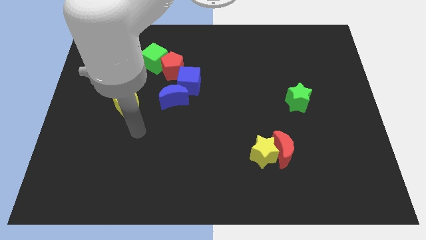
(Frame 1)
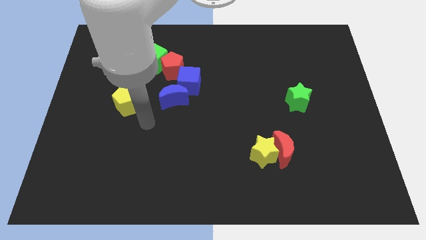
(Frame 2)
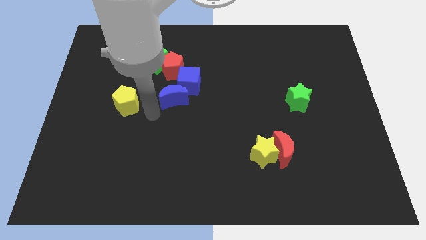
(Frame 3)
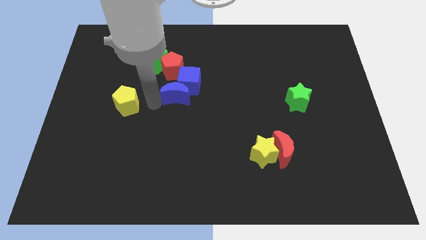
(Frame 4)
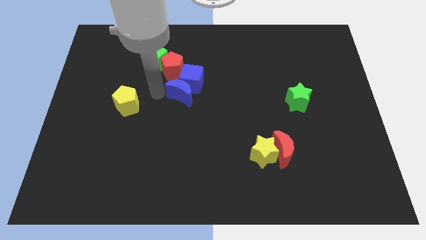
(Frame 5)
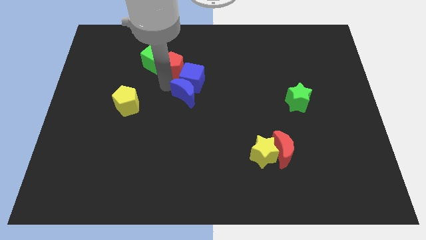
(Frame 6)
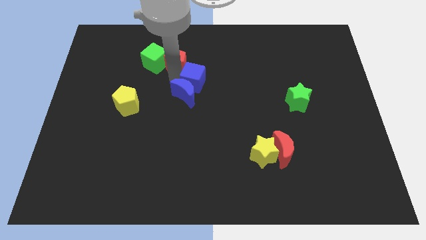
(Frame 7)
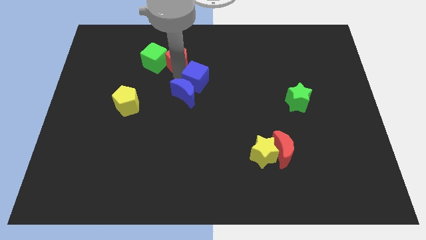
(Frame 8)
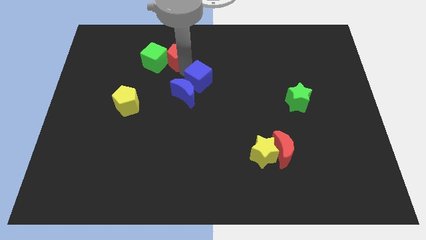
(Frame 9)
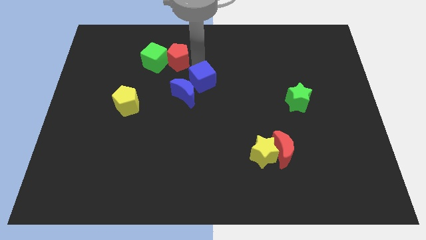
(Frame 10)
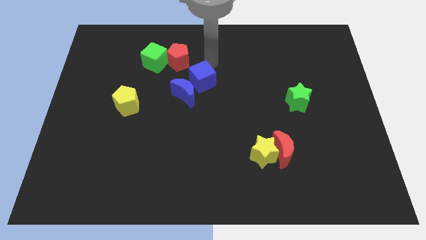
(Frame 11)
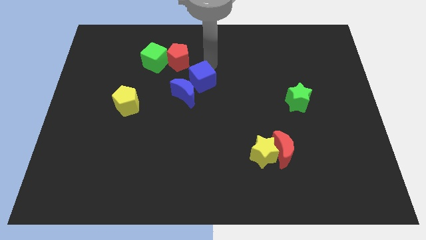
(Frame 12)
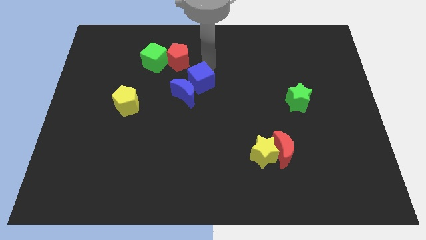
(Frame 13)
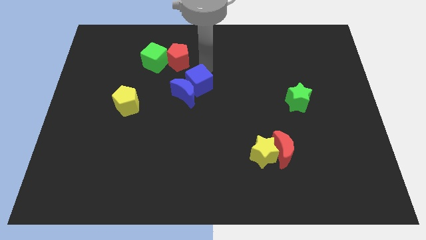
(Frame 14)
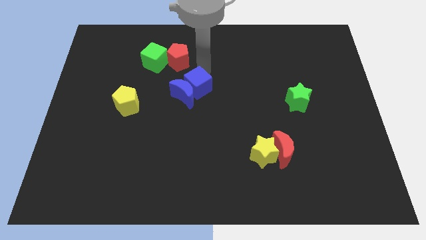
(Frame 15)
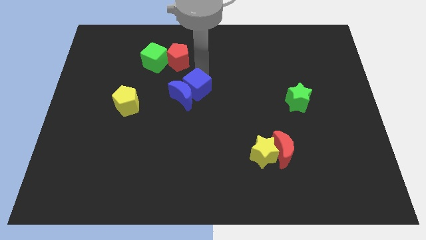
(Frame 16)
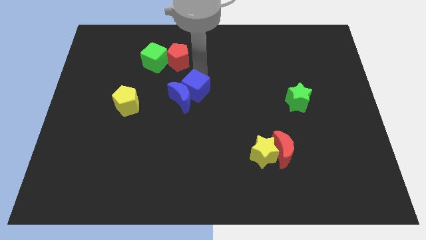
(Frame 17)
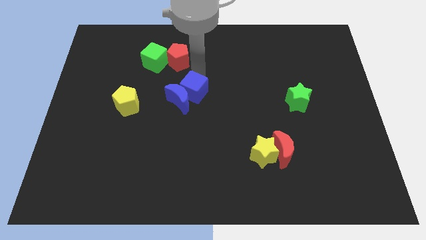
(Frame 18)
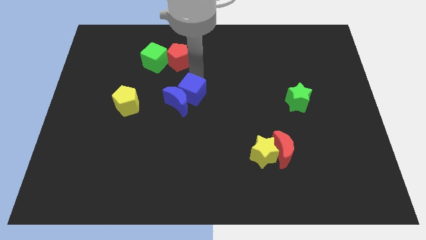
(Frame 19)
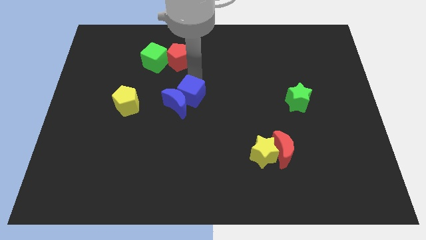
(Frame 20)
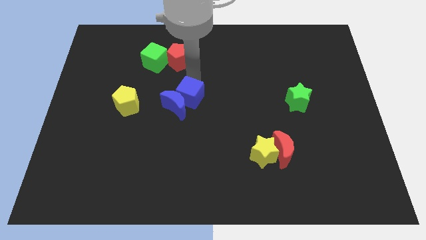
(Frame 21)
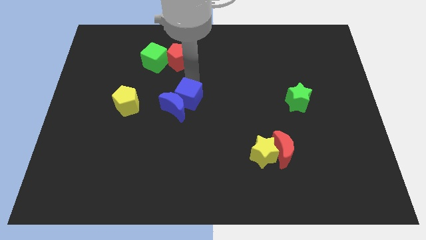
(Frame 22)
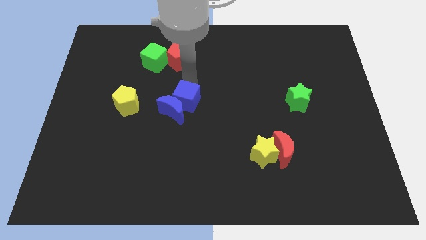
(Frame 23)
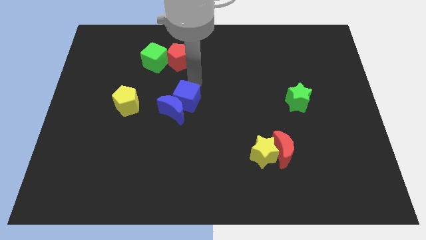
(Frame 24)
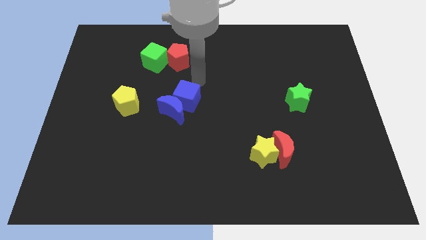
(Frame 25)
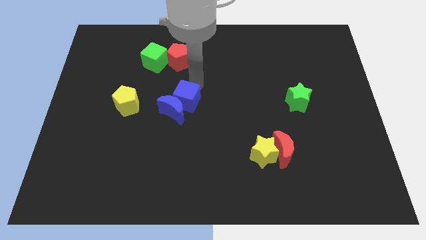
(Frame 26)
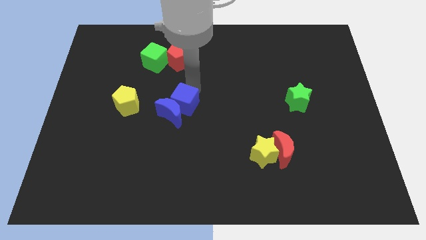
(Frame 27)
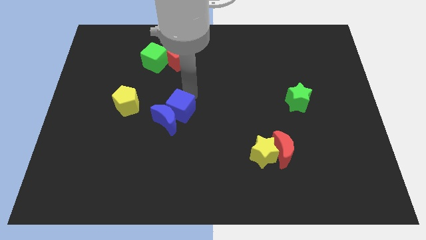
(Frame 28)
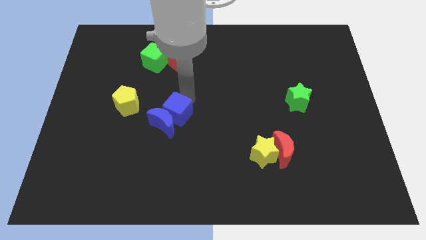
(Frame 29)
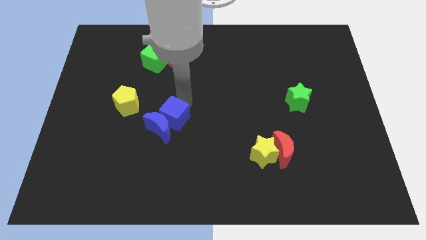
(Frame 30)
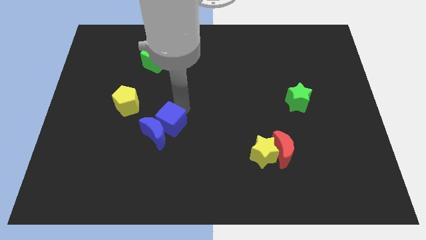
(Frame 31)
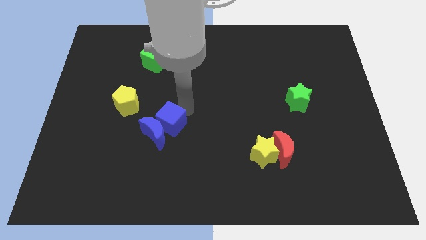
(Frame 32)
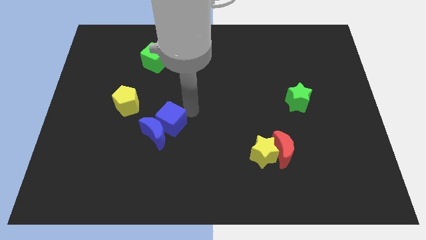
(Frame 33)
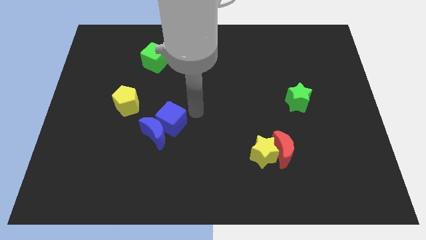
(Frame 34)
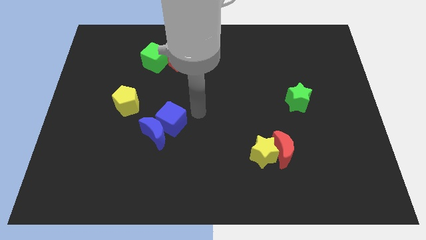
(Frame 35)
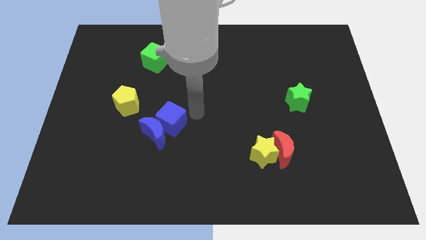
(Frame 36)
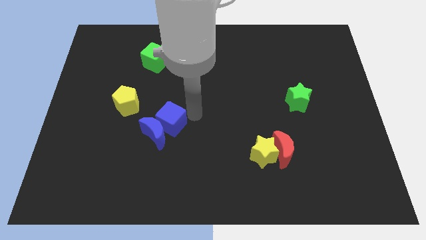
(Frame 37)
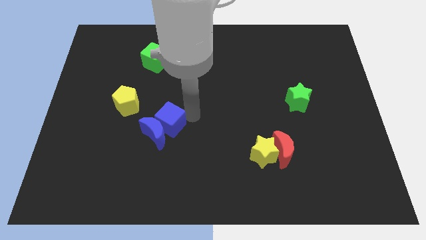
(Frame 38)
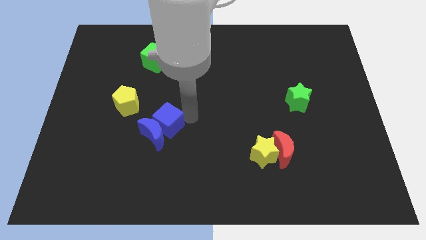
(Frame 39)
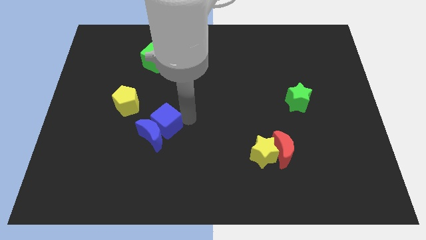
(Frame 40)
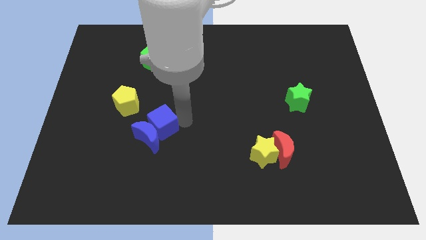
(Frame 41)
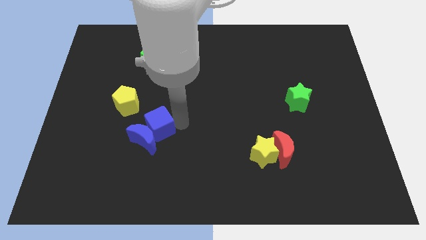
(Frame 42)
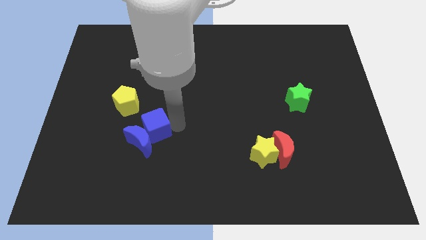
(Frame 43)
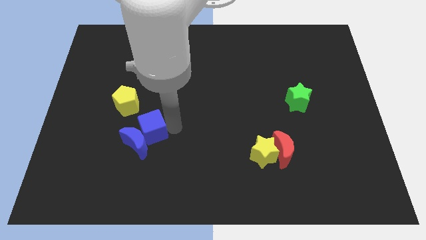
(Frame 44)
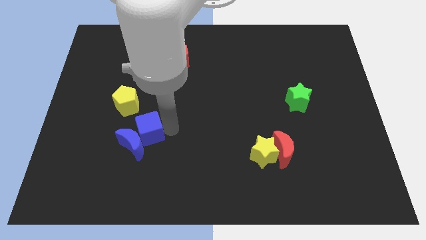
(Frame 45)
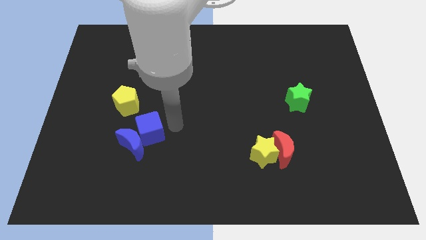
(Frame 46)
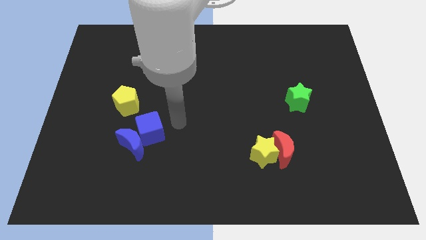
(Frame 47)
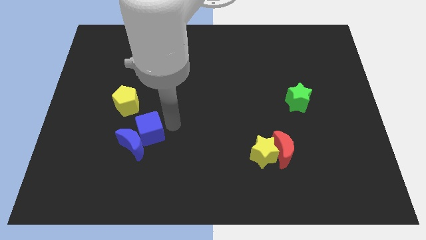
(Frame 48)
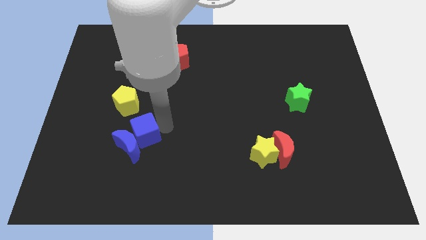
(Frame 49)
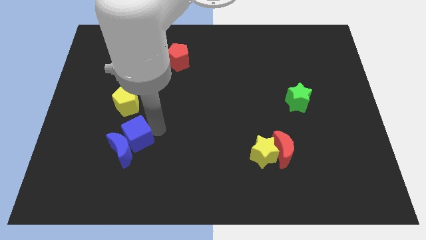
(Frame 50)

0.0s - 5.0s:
push the blue cube to the bottom of the yellow pentagon

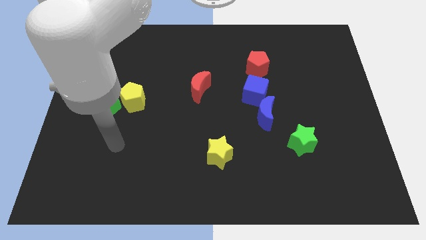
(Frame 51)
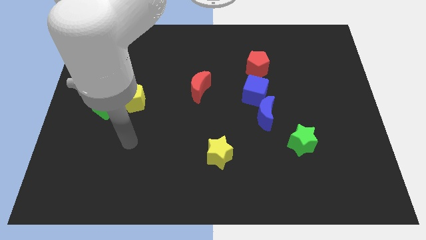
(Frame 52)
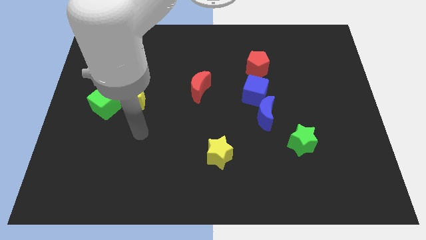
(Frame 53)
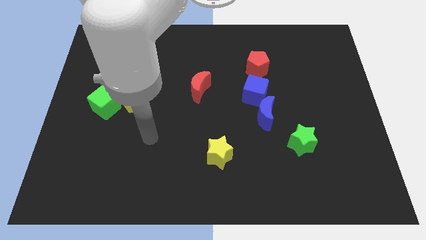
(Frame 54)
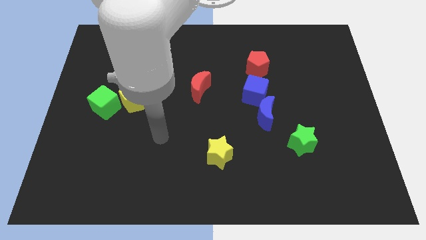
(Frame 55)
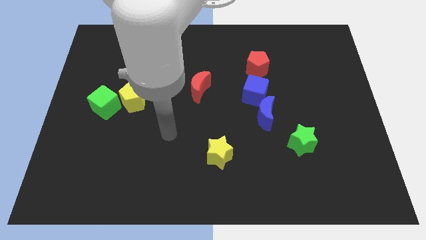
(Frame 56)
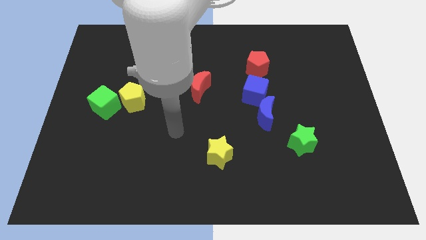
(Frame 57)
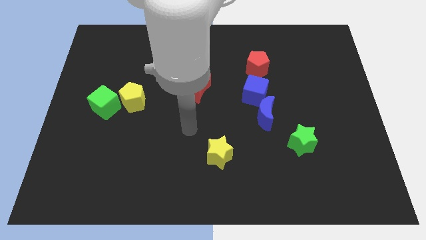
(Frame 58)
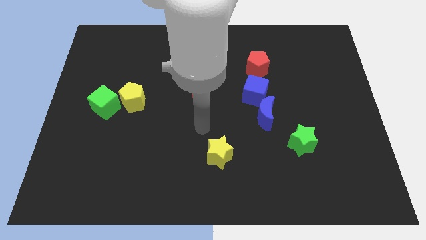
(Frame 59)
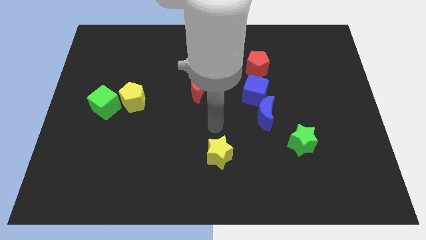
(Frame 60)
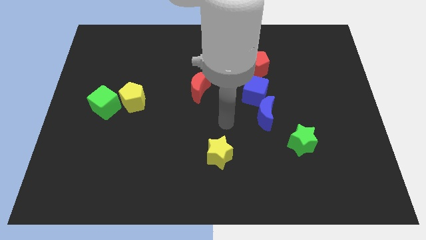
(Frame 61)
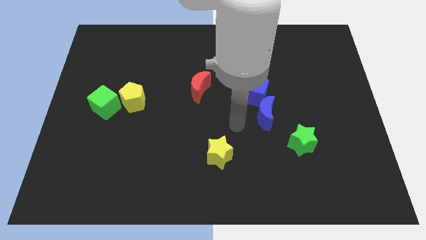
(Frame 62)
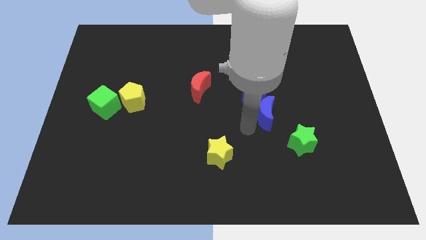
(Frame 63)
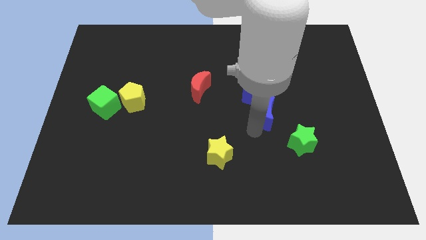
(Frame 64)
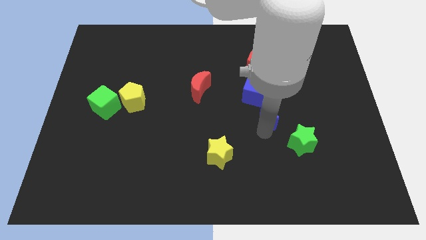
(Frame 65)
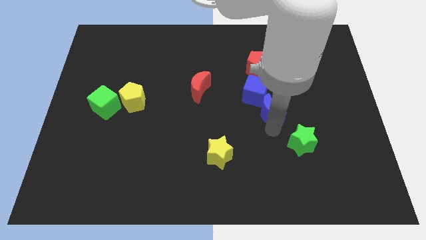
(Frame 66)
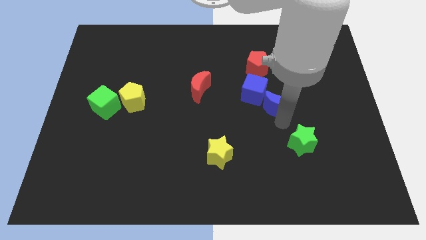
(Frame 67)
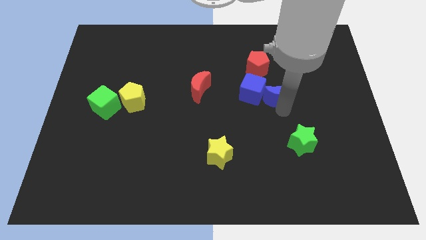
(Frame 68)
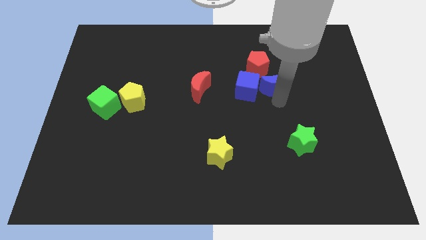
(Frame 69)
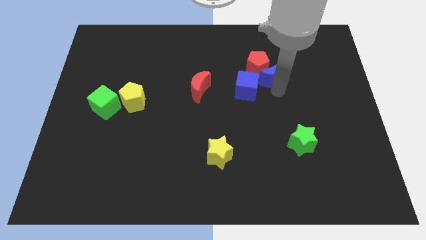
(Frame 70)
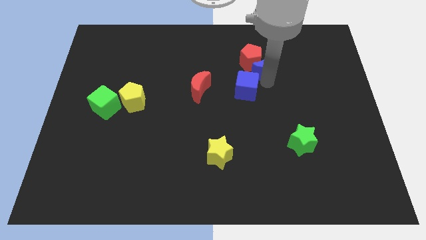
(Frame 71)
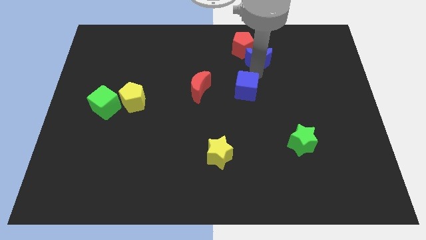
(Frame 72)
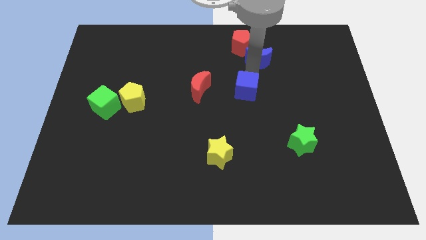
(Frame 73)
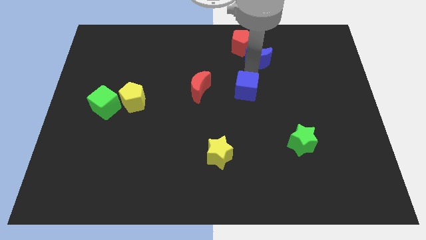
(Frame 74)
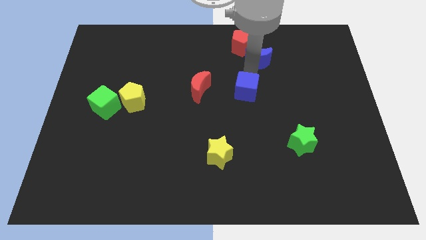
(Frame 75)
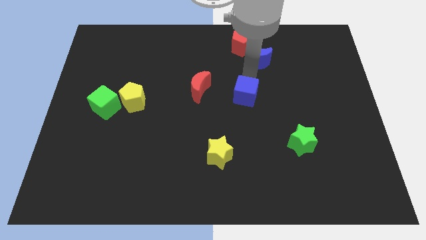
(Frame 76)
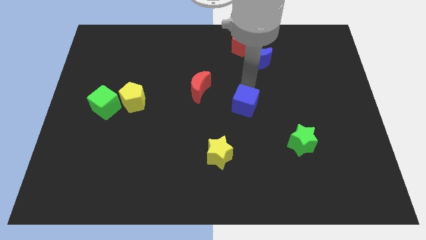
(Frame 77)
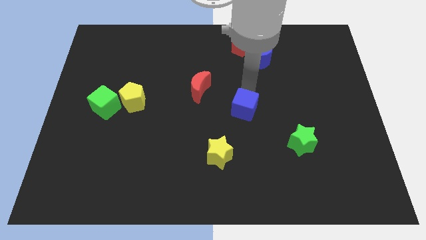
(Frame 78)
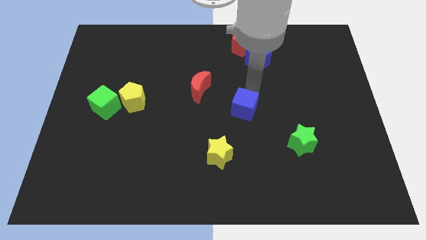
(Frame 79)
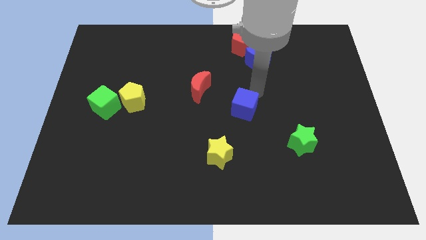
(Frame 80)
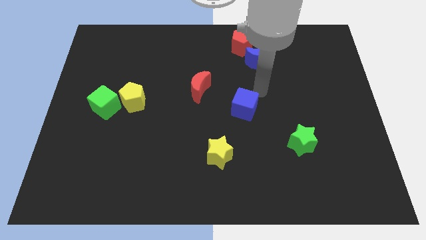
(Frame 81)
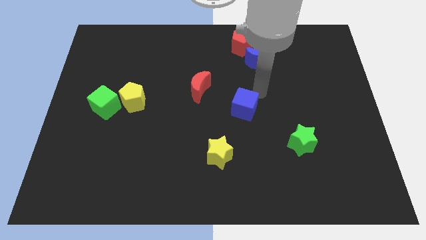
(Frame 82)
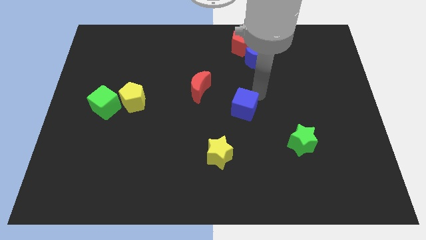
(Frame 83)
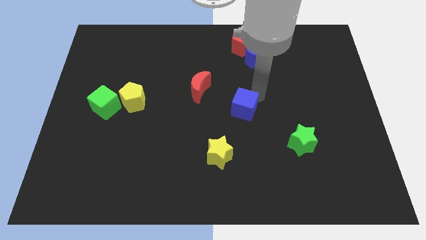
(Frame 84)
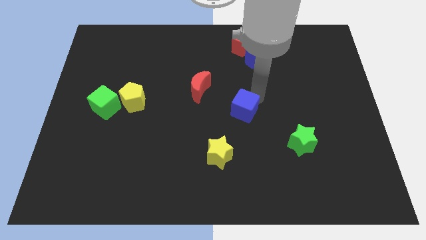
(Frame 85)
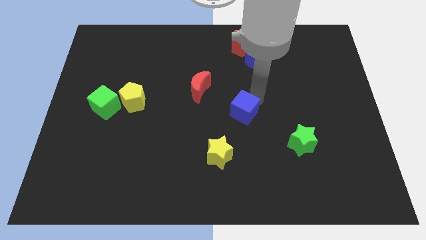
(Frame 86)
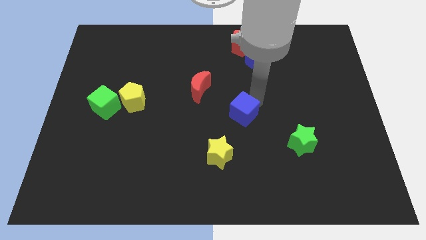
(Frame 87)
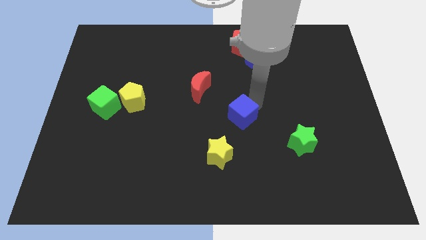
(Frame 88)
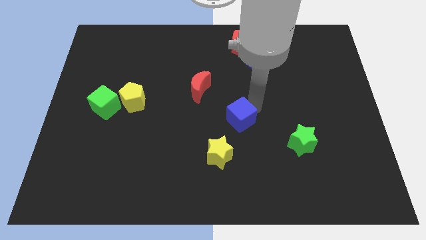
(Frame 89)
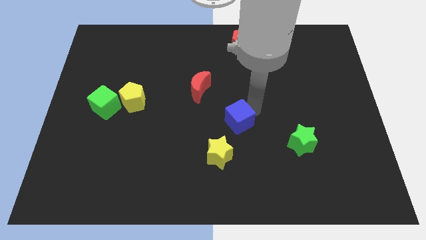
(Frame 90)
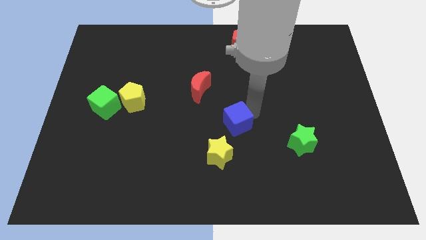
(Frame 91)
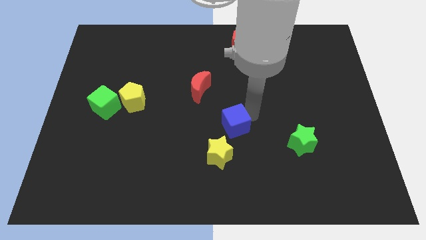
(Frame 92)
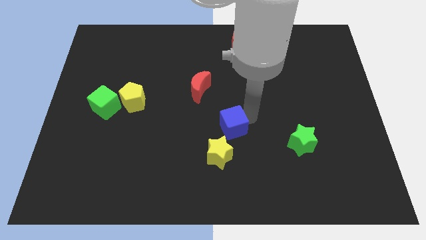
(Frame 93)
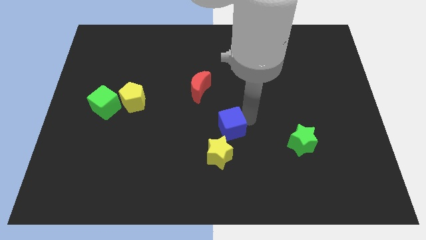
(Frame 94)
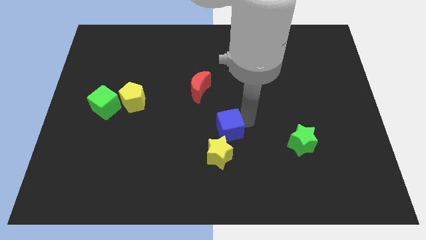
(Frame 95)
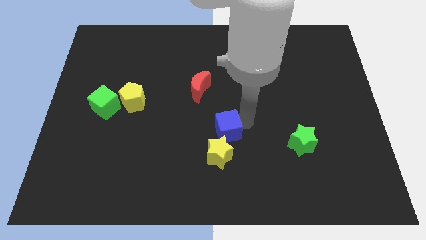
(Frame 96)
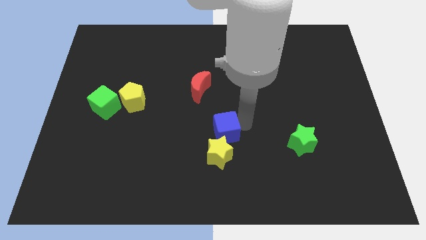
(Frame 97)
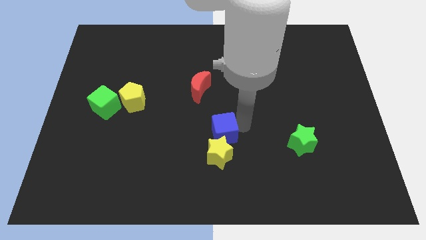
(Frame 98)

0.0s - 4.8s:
put the blue cube to the top left of the yellow star
